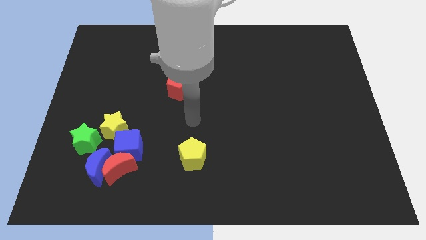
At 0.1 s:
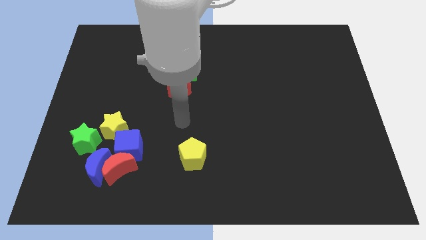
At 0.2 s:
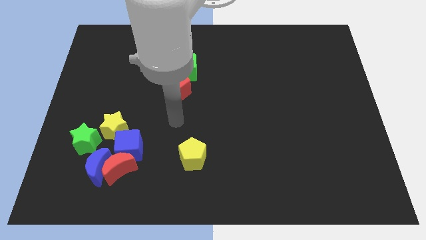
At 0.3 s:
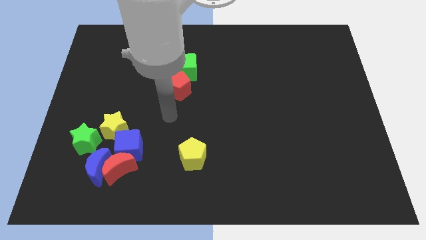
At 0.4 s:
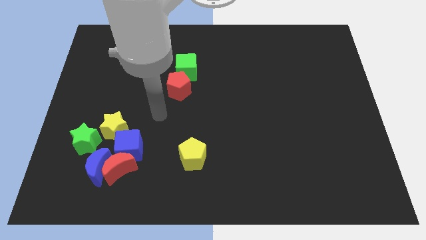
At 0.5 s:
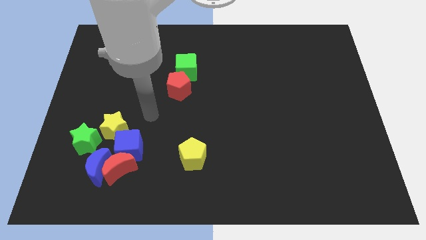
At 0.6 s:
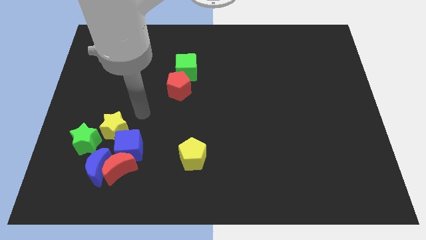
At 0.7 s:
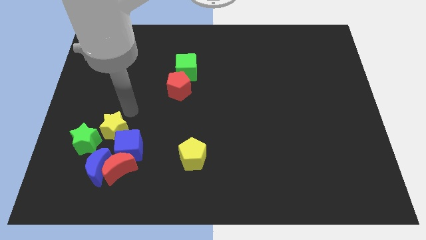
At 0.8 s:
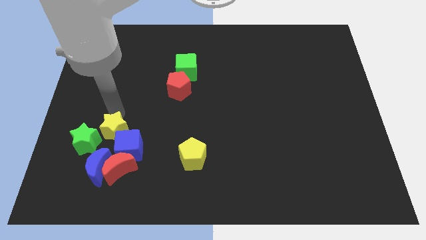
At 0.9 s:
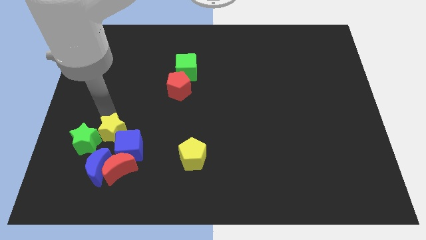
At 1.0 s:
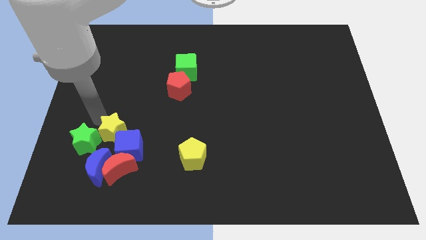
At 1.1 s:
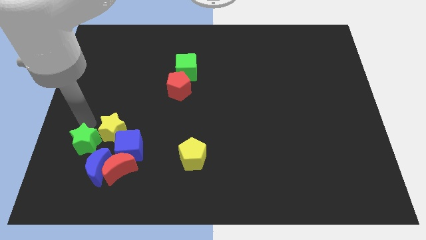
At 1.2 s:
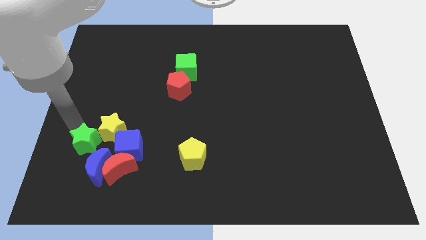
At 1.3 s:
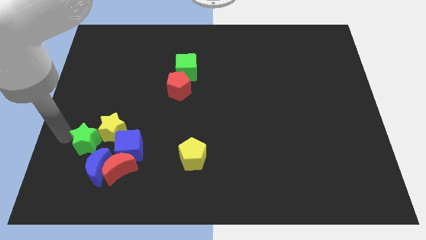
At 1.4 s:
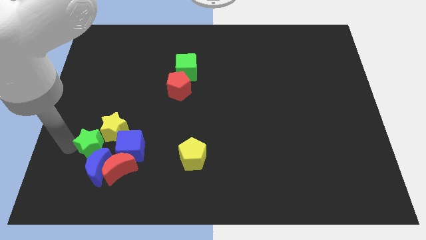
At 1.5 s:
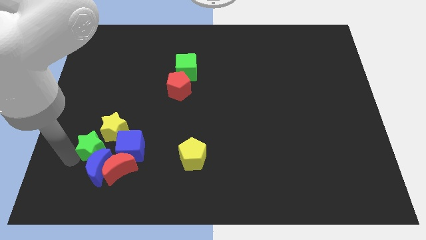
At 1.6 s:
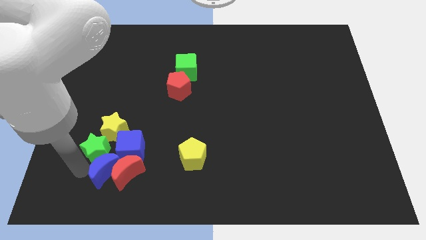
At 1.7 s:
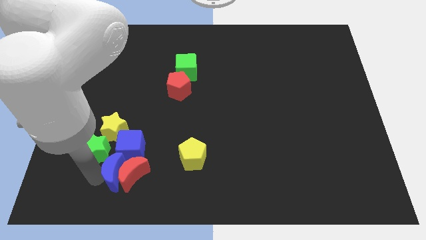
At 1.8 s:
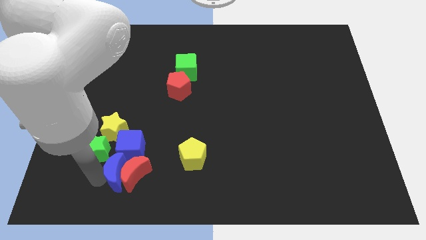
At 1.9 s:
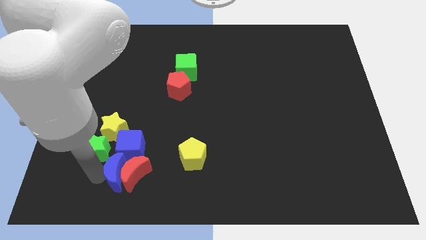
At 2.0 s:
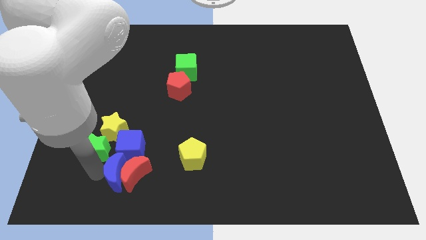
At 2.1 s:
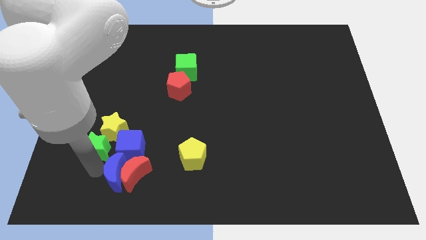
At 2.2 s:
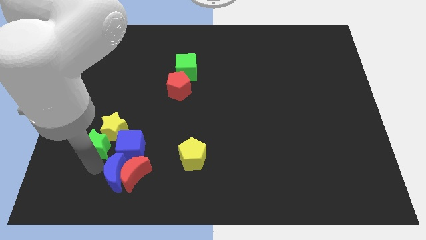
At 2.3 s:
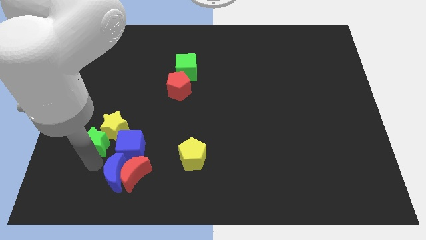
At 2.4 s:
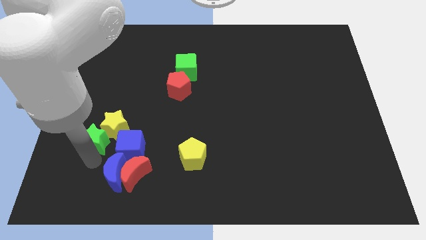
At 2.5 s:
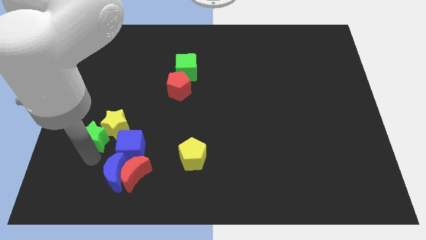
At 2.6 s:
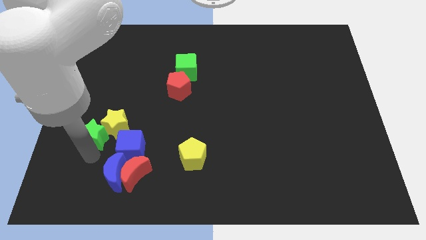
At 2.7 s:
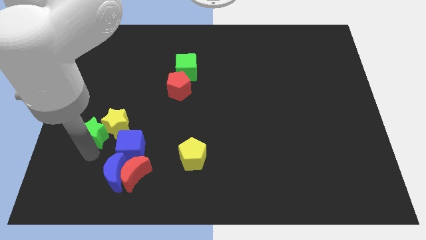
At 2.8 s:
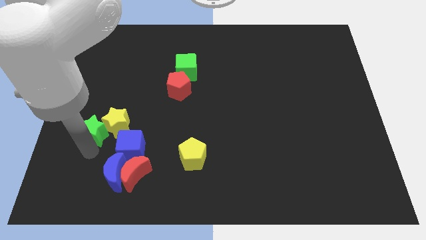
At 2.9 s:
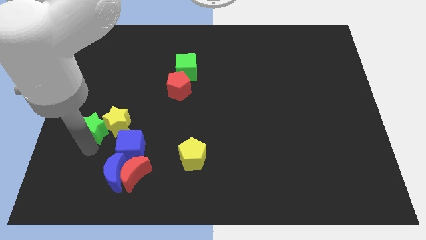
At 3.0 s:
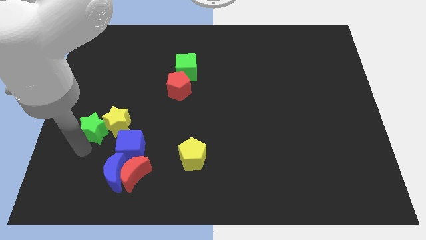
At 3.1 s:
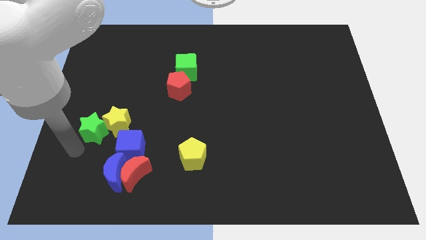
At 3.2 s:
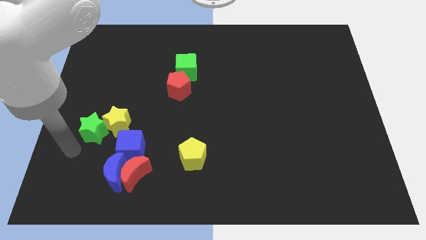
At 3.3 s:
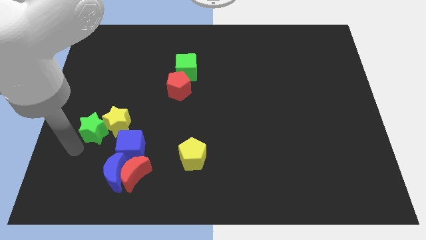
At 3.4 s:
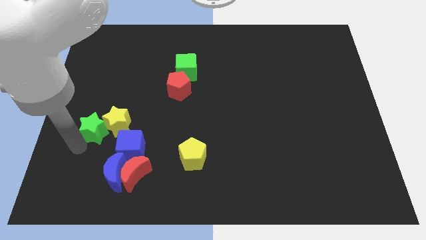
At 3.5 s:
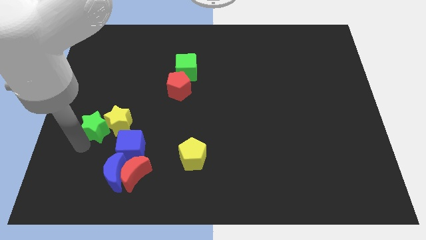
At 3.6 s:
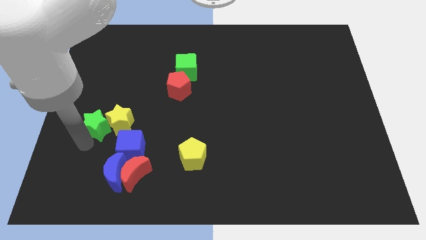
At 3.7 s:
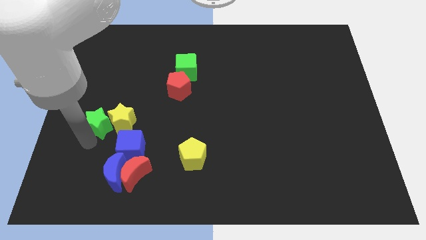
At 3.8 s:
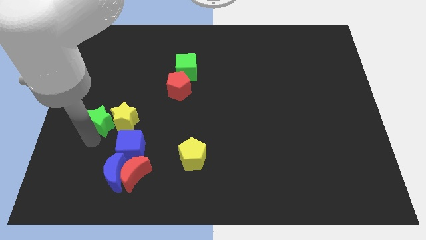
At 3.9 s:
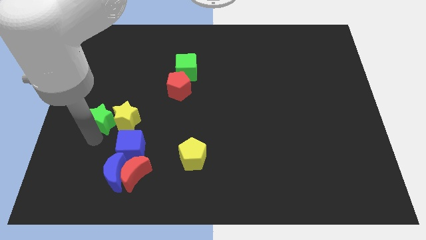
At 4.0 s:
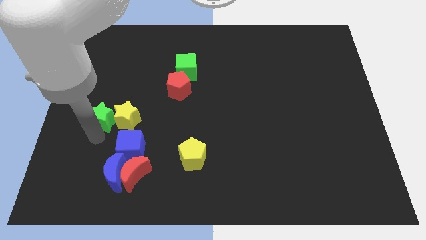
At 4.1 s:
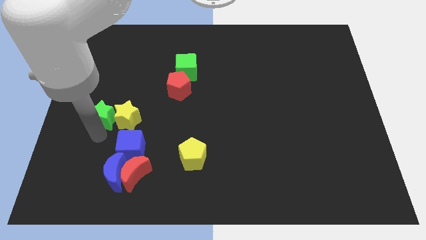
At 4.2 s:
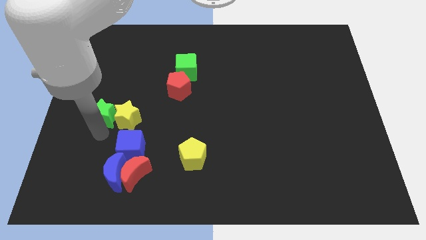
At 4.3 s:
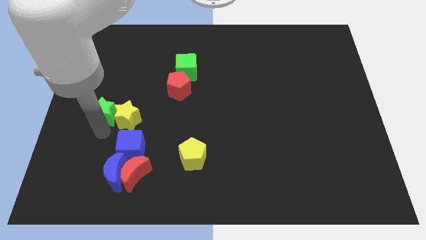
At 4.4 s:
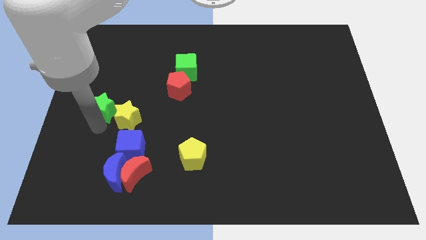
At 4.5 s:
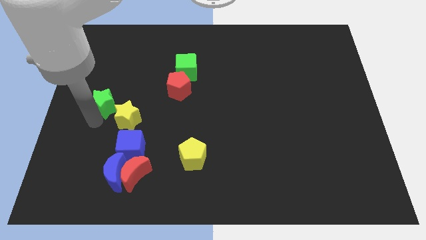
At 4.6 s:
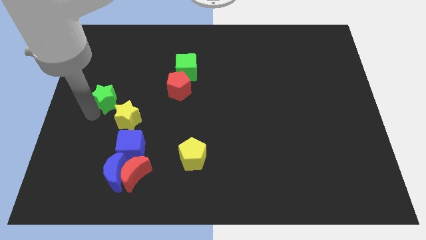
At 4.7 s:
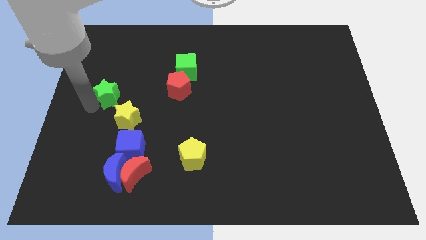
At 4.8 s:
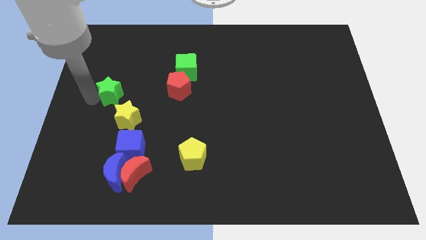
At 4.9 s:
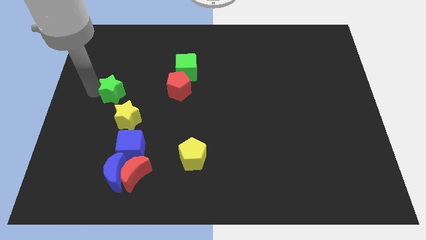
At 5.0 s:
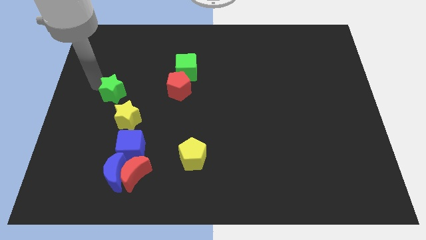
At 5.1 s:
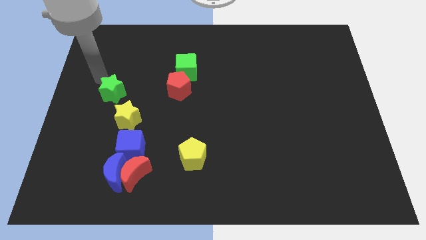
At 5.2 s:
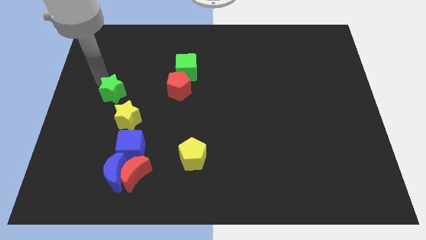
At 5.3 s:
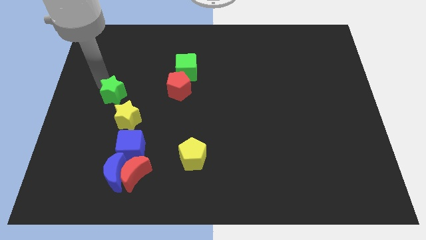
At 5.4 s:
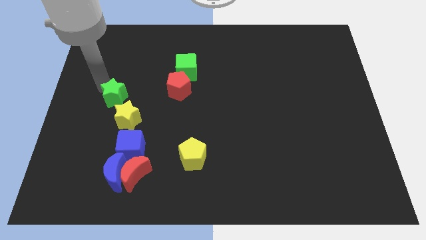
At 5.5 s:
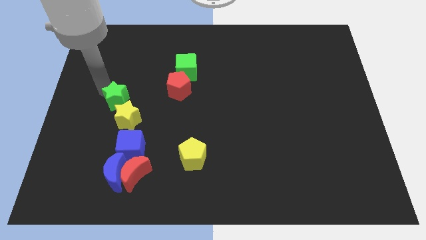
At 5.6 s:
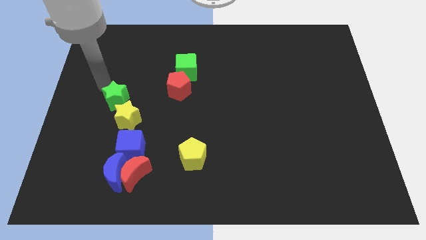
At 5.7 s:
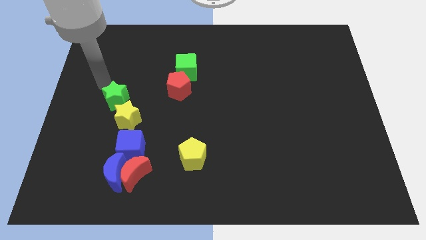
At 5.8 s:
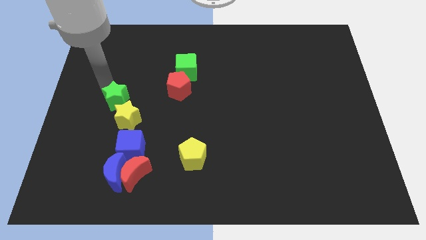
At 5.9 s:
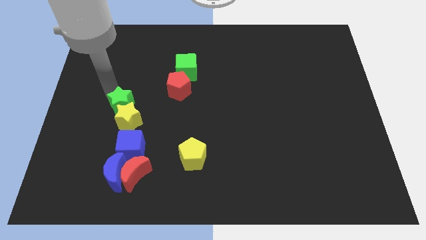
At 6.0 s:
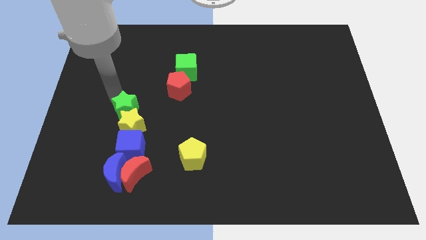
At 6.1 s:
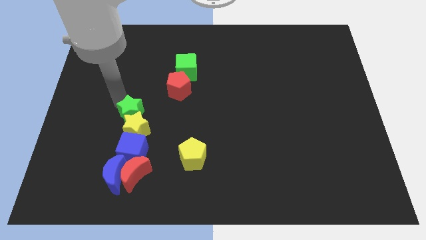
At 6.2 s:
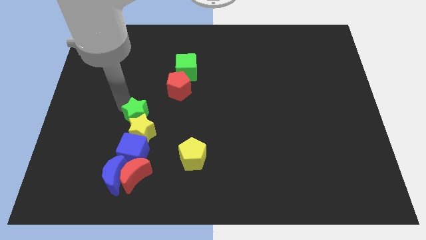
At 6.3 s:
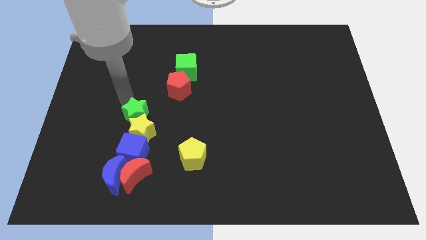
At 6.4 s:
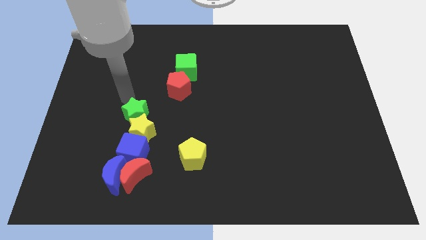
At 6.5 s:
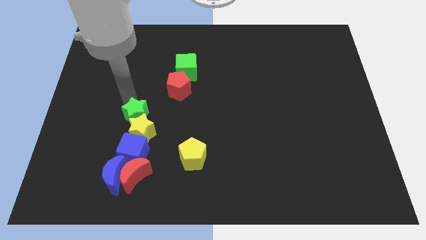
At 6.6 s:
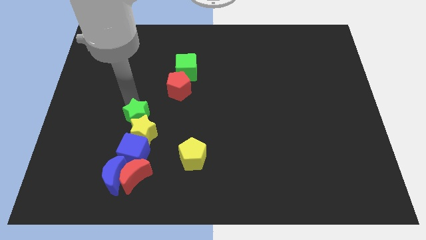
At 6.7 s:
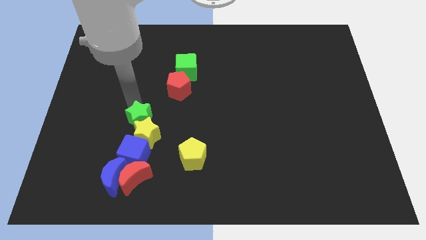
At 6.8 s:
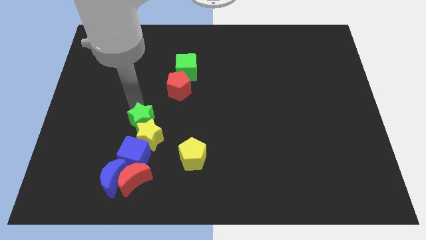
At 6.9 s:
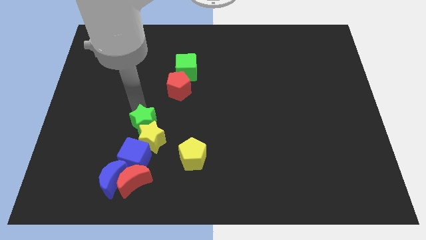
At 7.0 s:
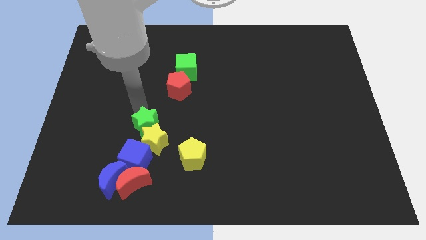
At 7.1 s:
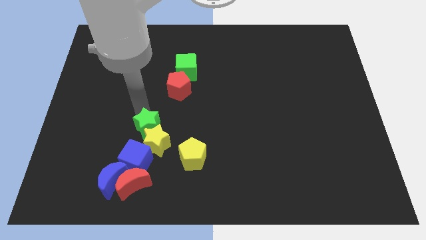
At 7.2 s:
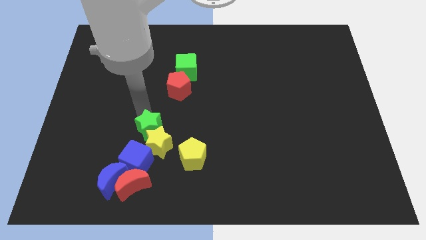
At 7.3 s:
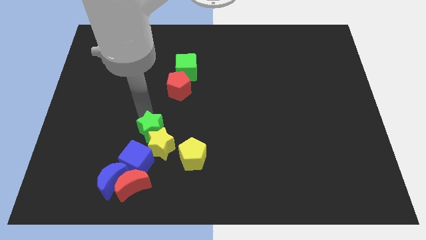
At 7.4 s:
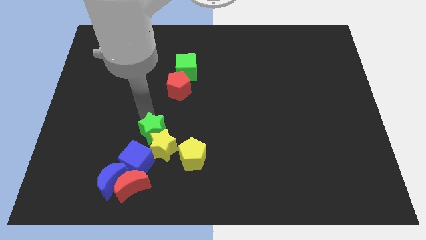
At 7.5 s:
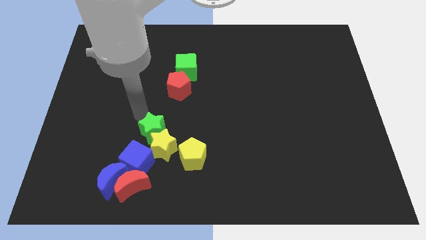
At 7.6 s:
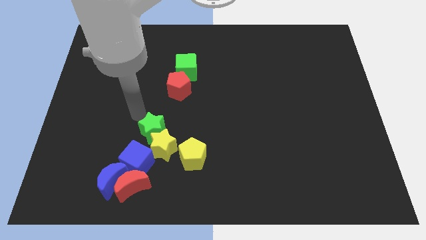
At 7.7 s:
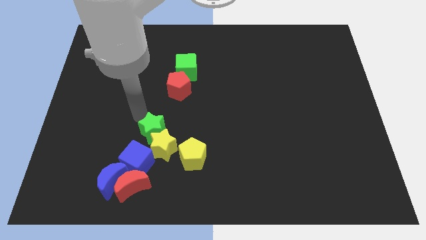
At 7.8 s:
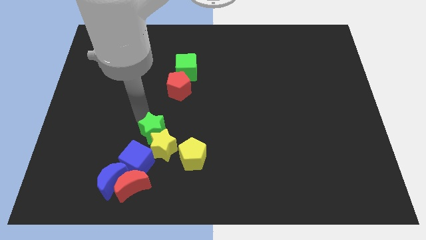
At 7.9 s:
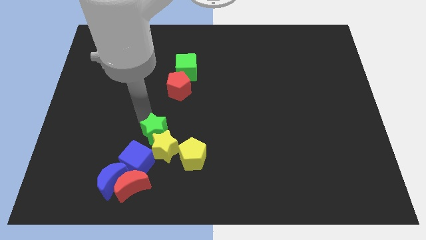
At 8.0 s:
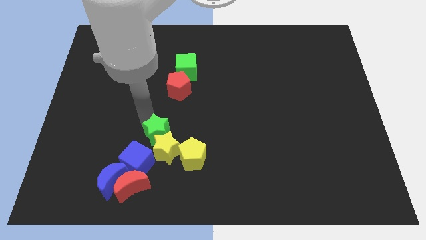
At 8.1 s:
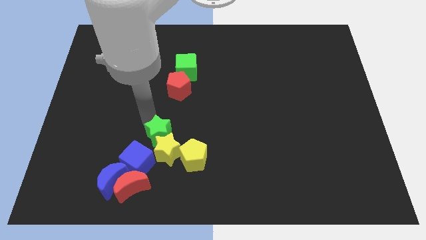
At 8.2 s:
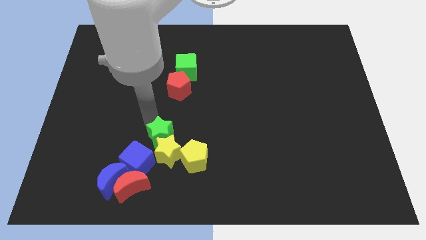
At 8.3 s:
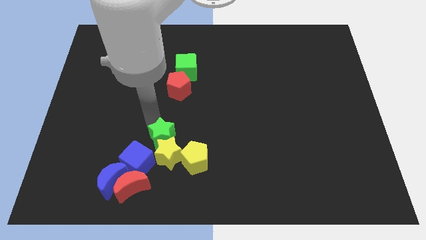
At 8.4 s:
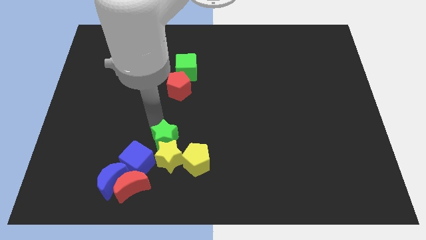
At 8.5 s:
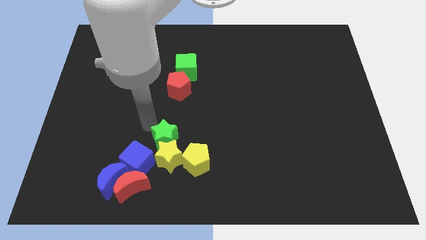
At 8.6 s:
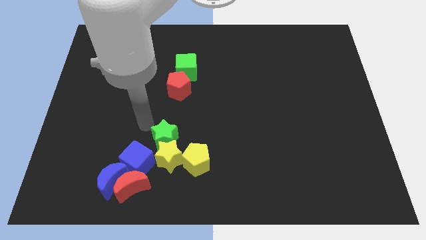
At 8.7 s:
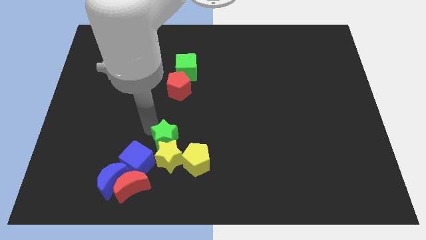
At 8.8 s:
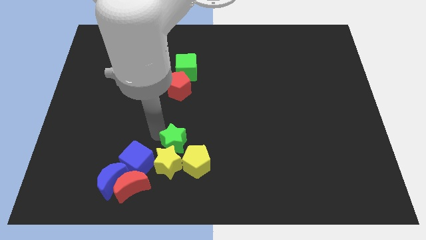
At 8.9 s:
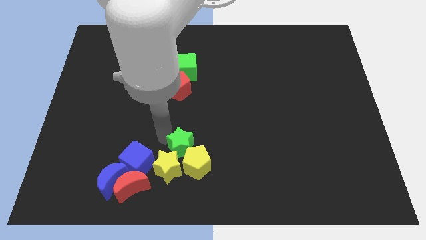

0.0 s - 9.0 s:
push the green star towards the yellow pentagon
